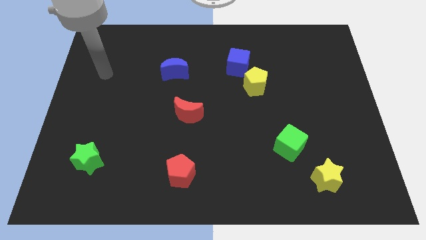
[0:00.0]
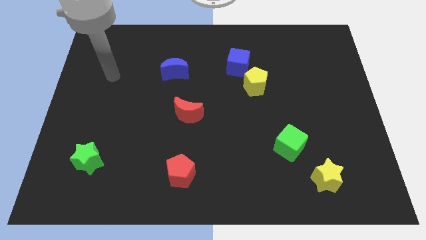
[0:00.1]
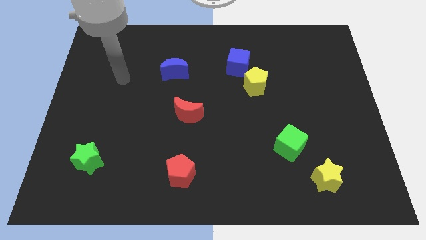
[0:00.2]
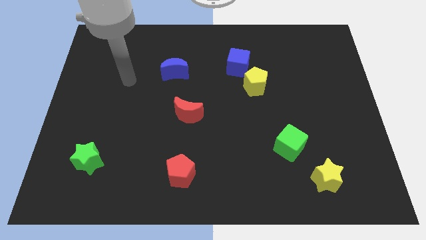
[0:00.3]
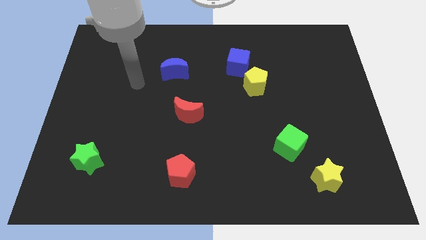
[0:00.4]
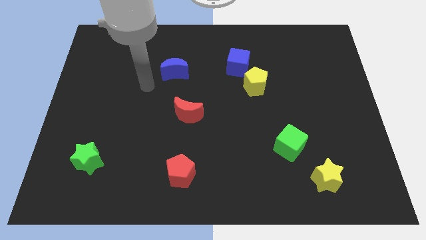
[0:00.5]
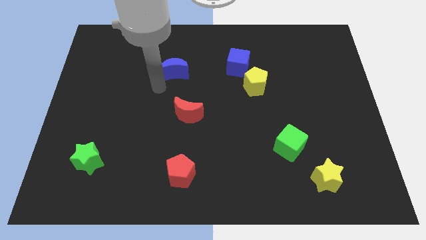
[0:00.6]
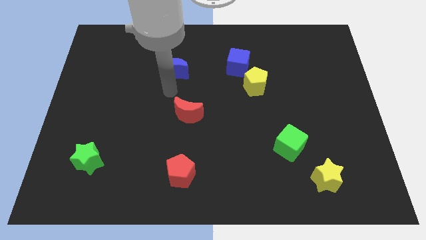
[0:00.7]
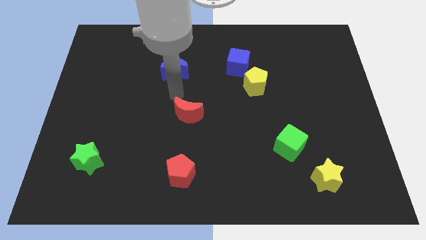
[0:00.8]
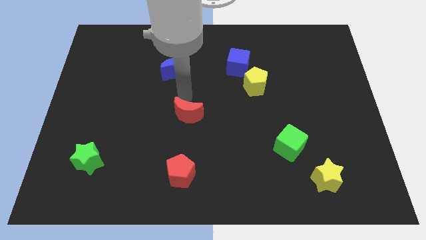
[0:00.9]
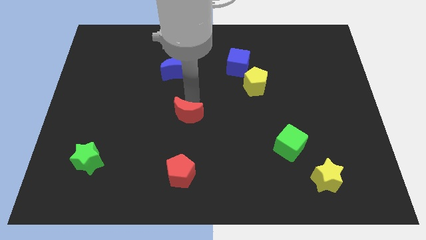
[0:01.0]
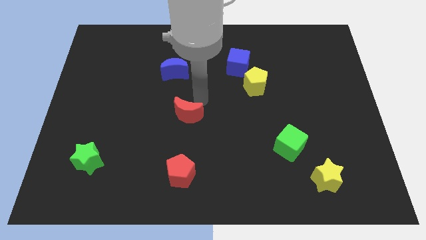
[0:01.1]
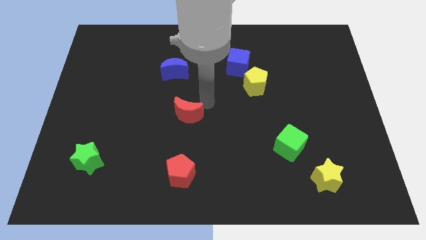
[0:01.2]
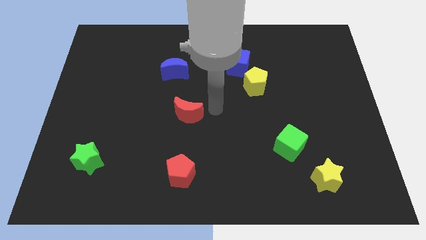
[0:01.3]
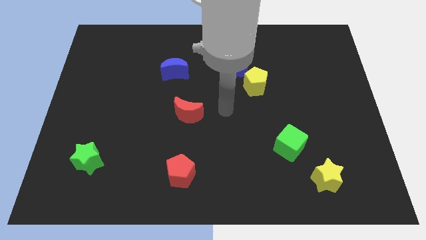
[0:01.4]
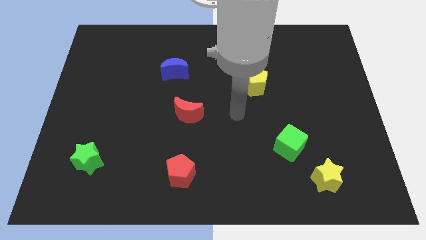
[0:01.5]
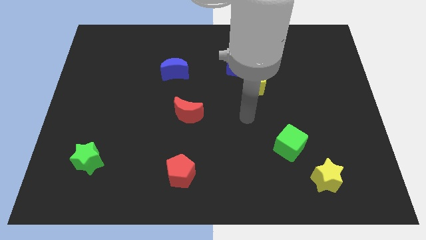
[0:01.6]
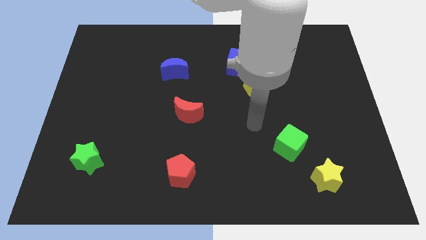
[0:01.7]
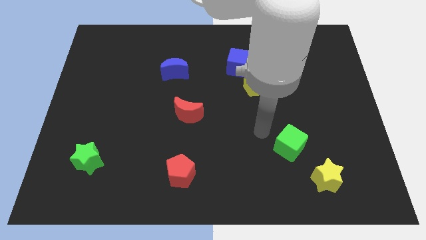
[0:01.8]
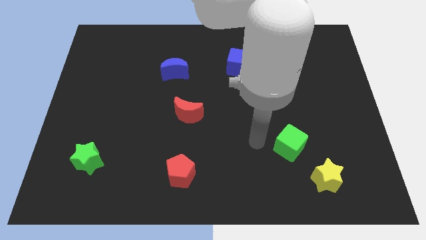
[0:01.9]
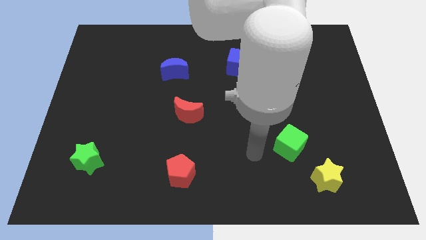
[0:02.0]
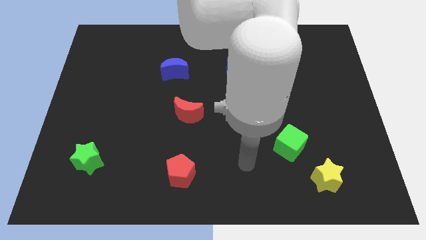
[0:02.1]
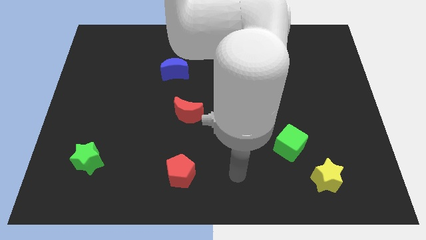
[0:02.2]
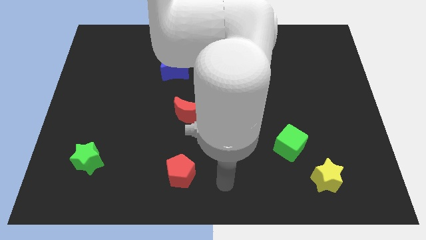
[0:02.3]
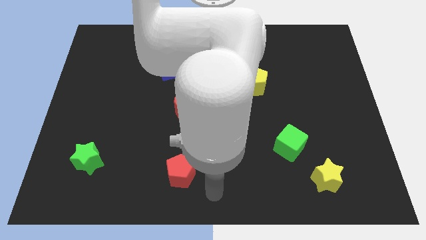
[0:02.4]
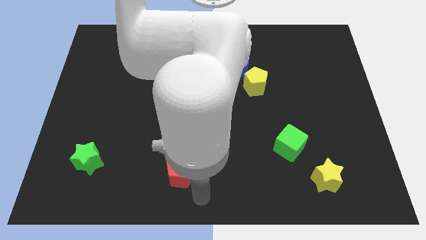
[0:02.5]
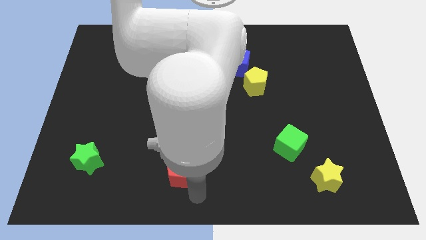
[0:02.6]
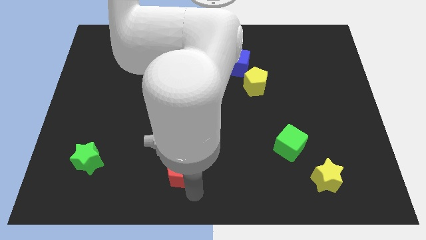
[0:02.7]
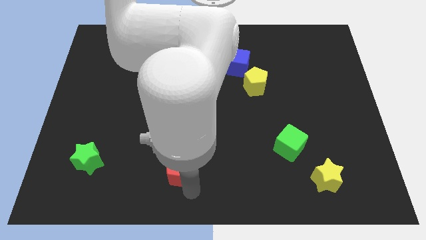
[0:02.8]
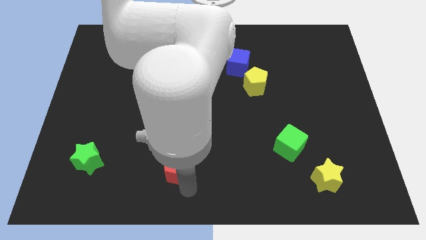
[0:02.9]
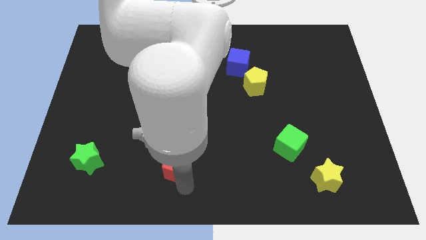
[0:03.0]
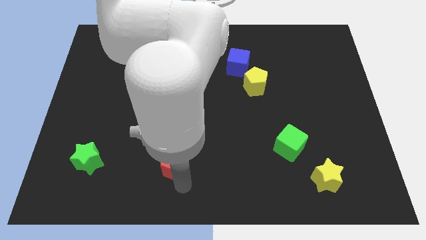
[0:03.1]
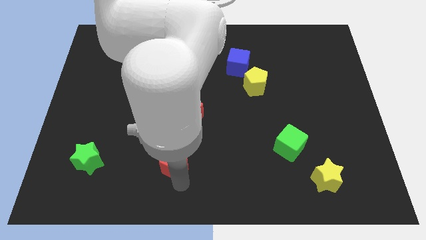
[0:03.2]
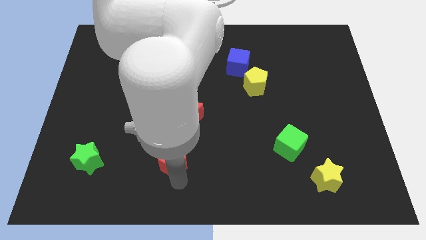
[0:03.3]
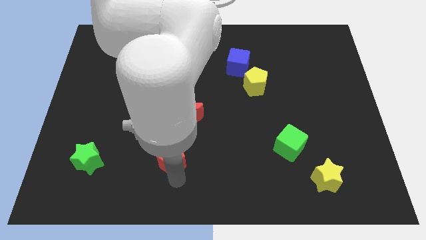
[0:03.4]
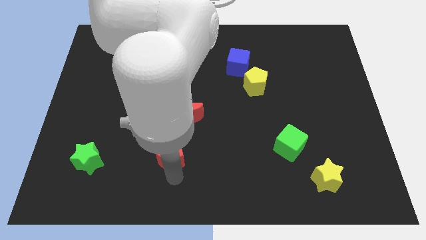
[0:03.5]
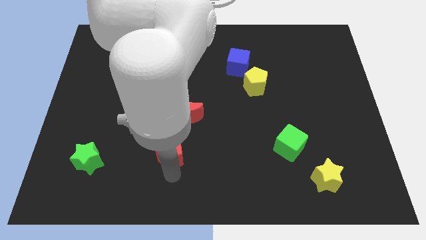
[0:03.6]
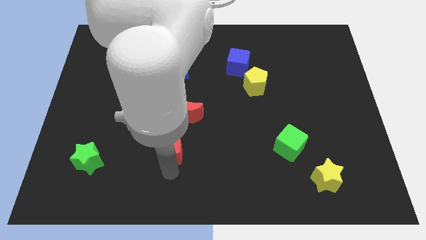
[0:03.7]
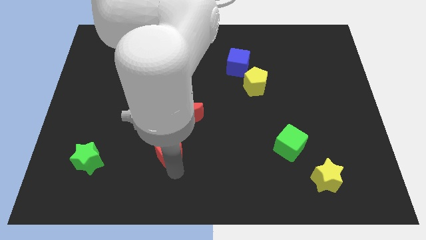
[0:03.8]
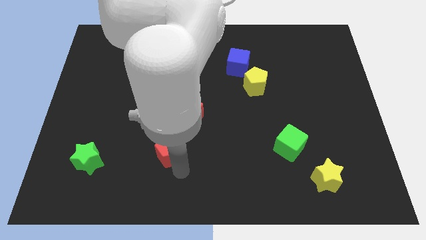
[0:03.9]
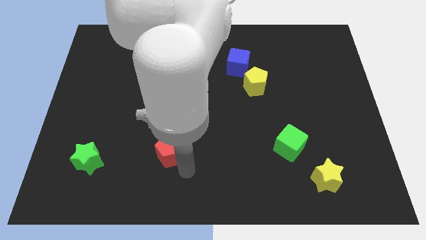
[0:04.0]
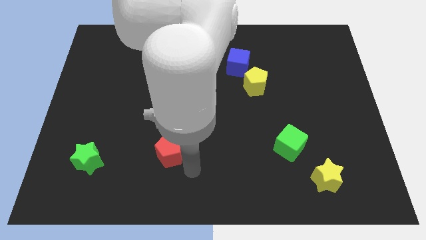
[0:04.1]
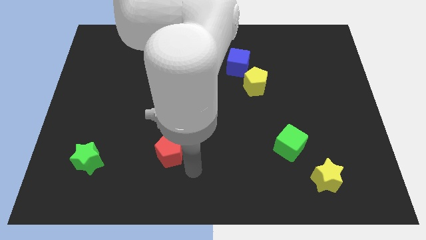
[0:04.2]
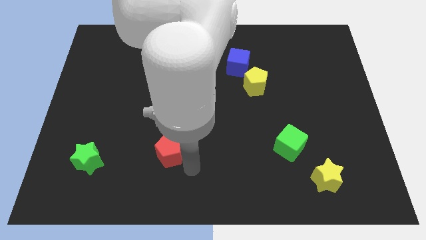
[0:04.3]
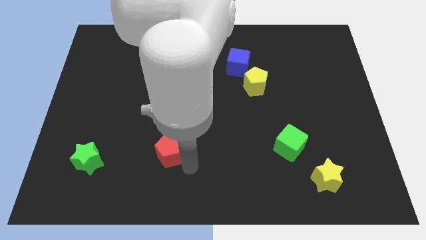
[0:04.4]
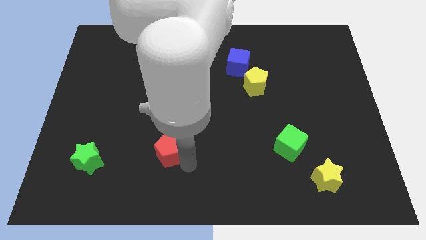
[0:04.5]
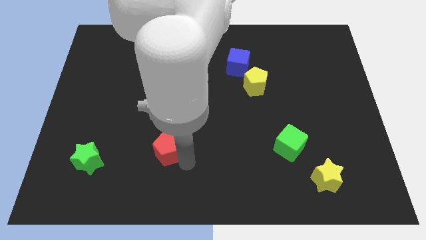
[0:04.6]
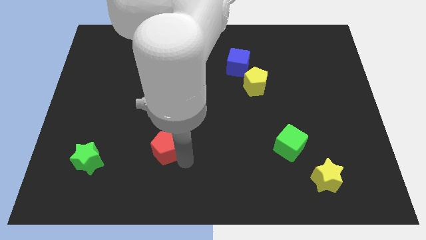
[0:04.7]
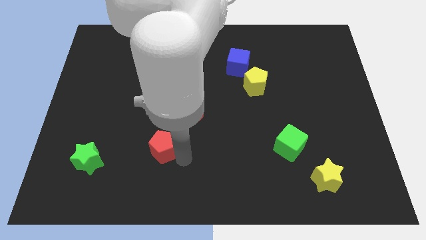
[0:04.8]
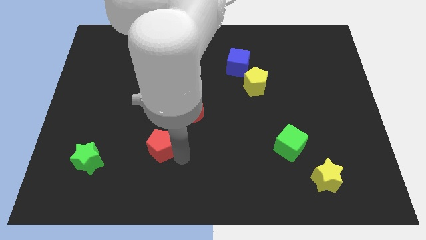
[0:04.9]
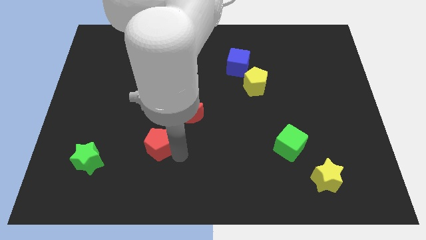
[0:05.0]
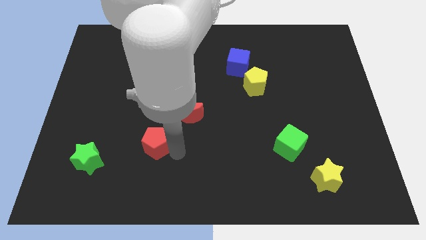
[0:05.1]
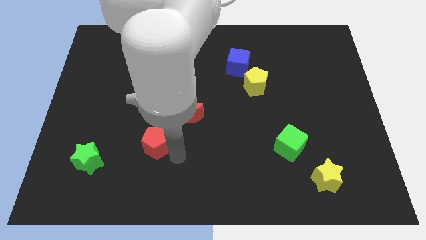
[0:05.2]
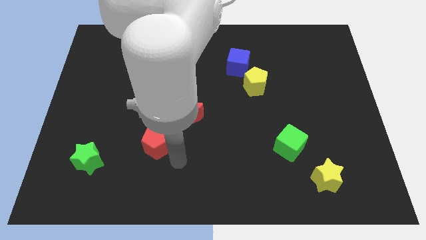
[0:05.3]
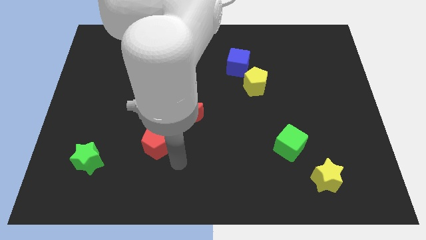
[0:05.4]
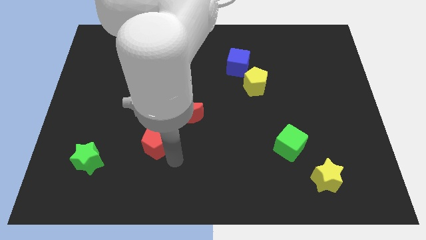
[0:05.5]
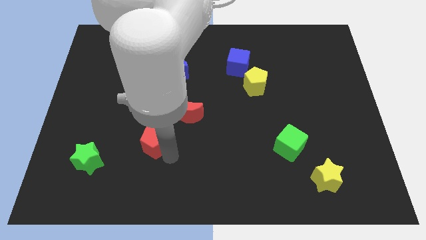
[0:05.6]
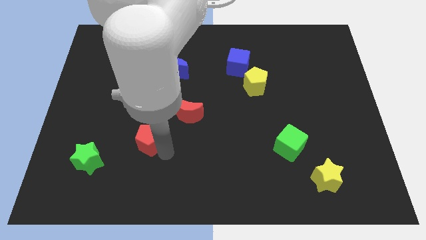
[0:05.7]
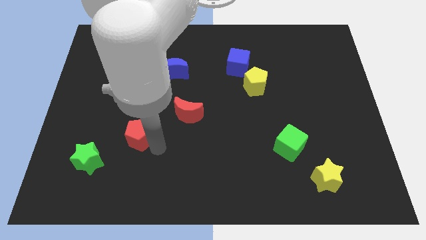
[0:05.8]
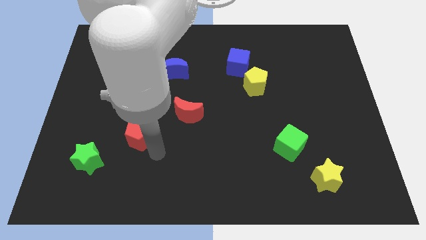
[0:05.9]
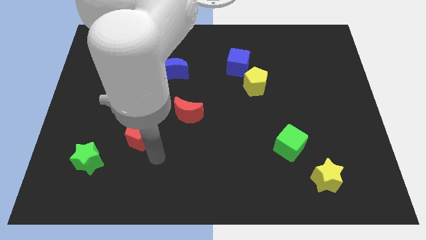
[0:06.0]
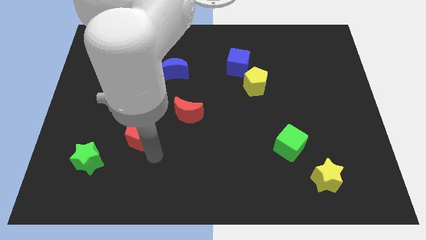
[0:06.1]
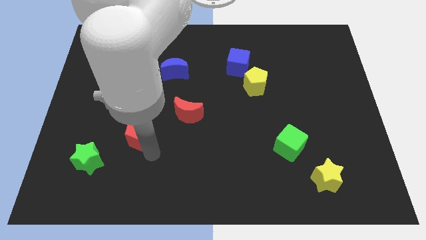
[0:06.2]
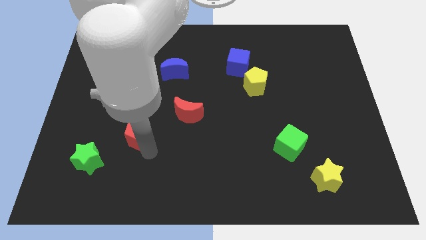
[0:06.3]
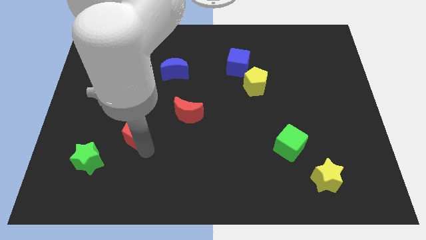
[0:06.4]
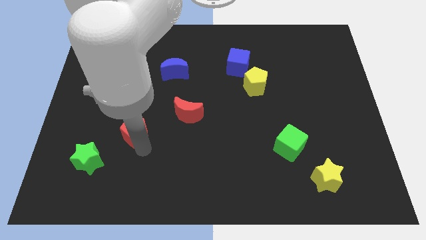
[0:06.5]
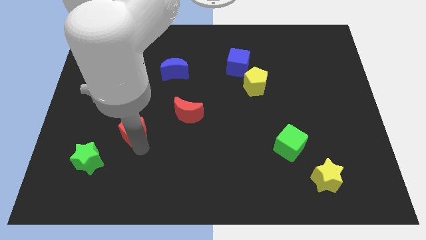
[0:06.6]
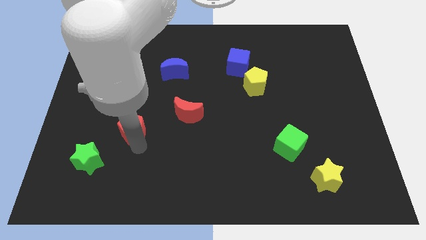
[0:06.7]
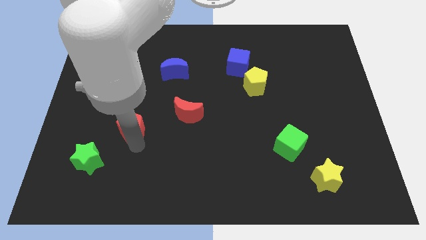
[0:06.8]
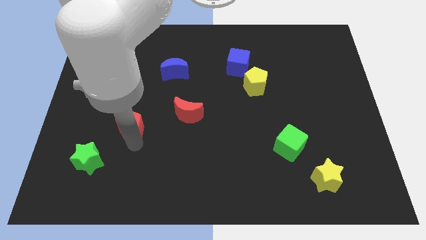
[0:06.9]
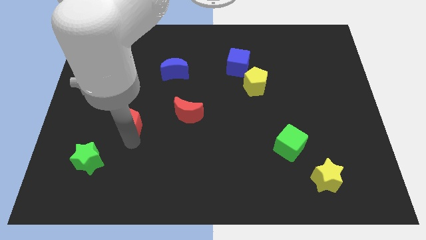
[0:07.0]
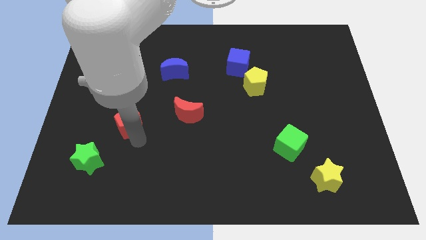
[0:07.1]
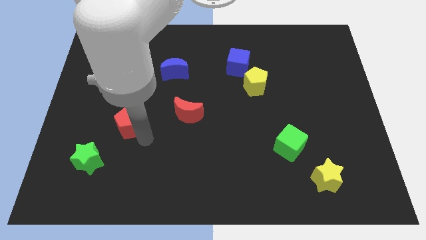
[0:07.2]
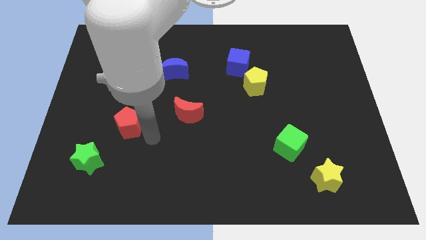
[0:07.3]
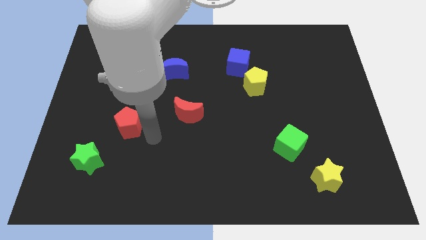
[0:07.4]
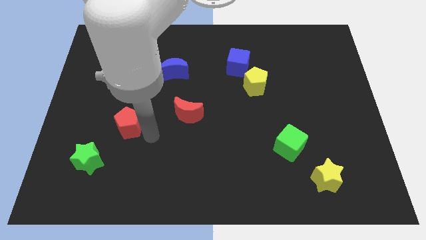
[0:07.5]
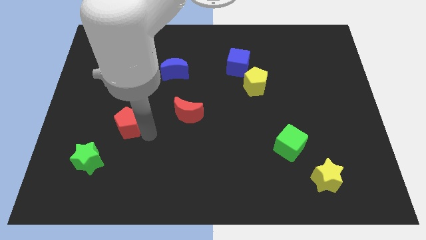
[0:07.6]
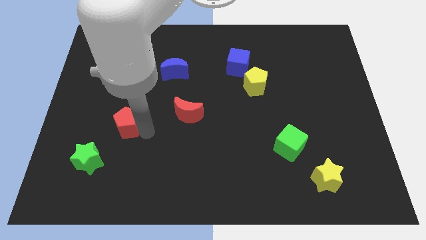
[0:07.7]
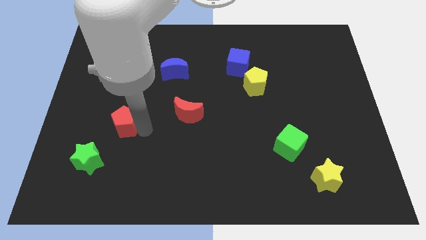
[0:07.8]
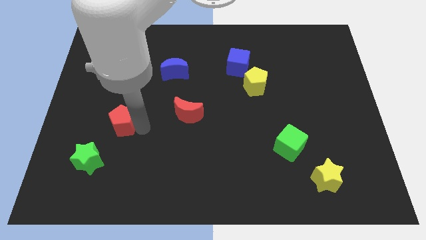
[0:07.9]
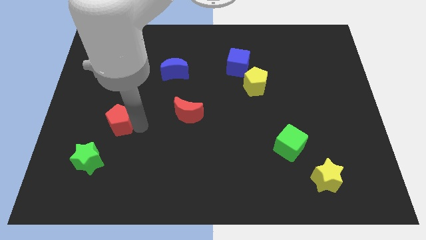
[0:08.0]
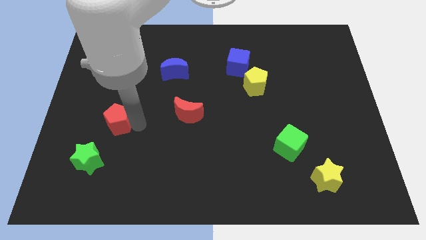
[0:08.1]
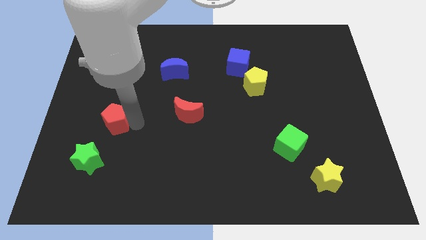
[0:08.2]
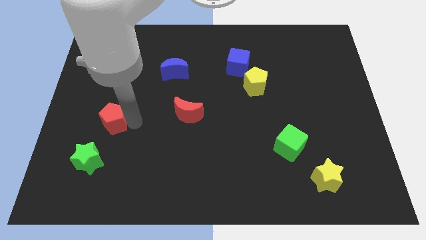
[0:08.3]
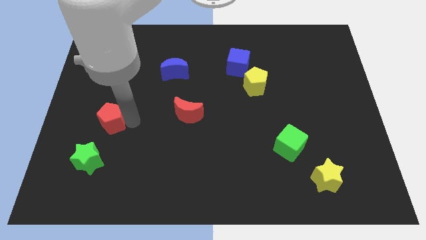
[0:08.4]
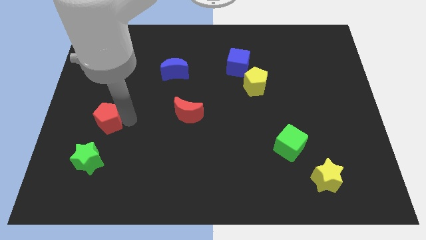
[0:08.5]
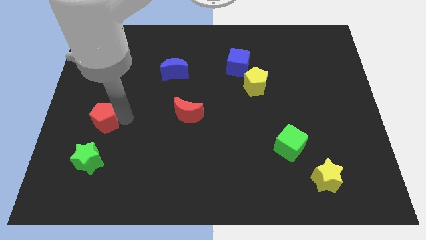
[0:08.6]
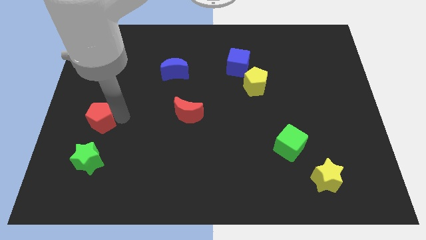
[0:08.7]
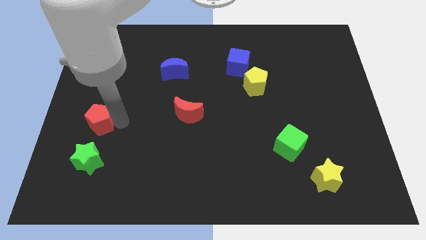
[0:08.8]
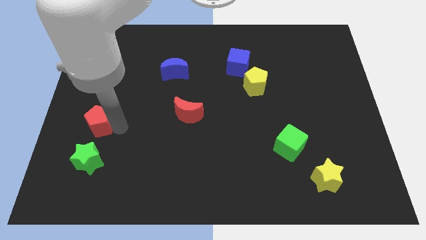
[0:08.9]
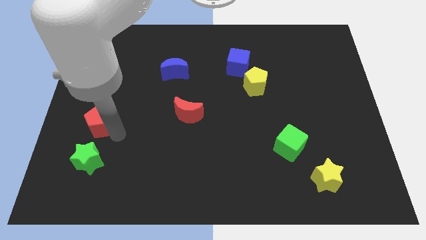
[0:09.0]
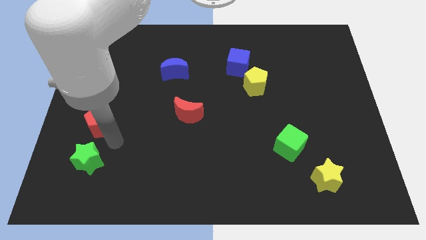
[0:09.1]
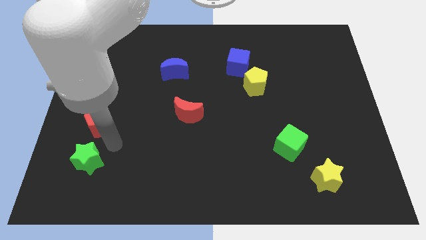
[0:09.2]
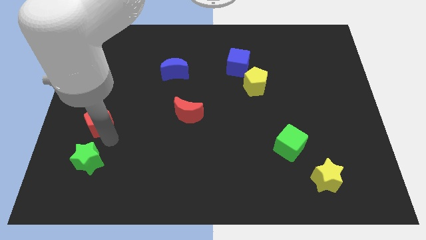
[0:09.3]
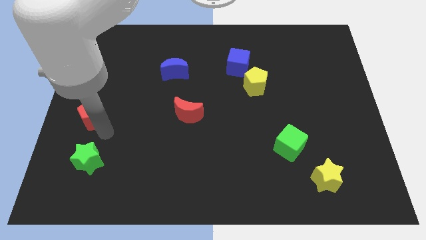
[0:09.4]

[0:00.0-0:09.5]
move the red pentagon to the left side of the board
